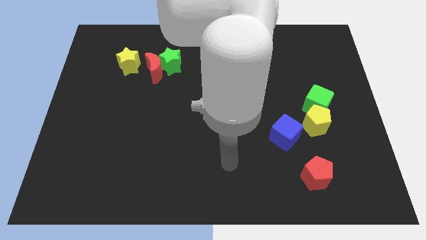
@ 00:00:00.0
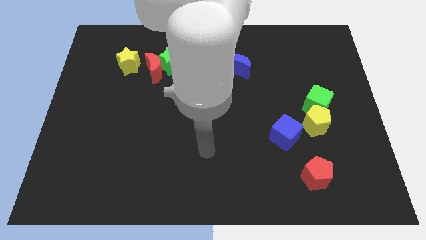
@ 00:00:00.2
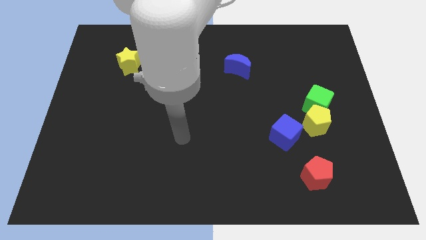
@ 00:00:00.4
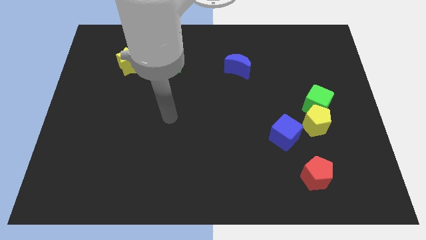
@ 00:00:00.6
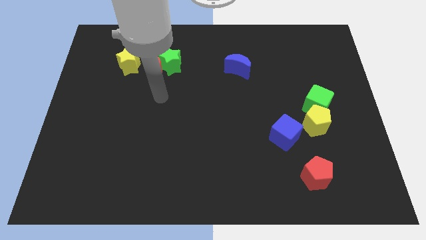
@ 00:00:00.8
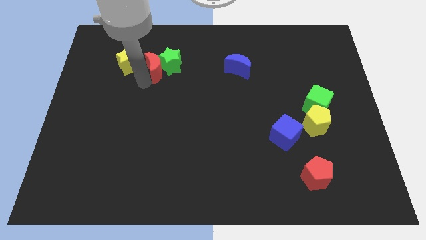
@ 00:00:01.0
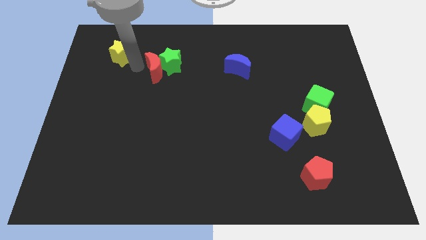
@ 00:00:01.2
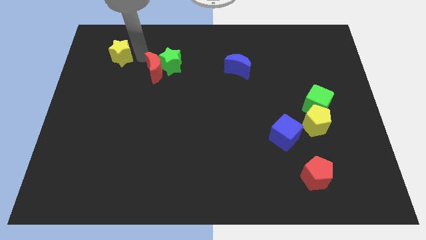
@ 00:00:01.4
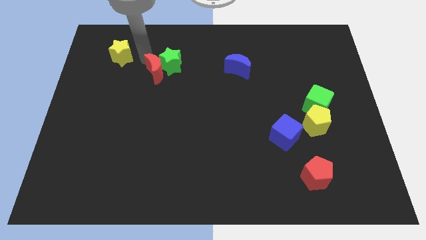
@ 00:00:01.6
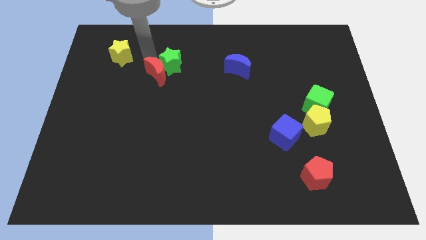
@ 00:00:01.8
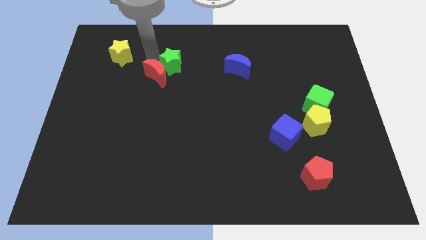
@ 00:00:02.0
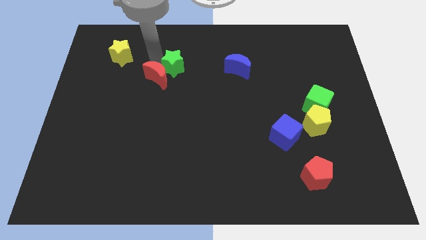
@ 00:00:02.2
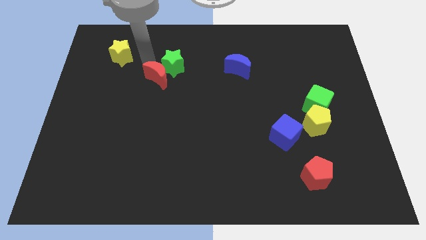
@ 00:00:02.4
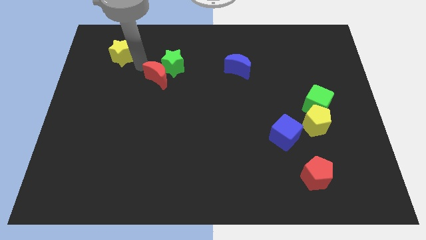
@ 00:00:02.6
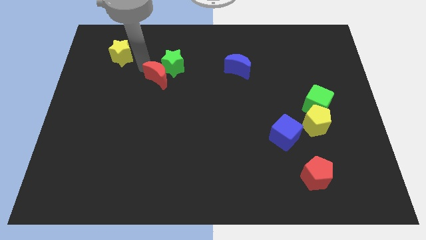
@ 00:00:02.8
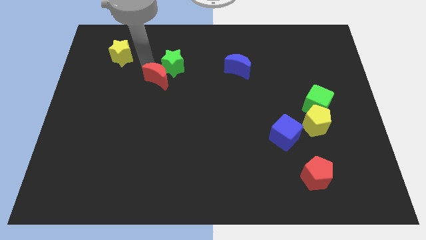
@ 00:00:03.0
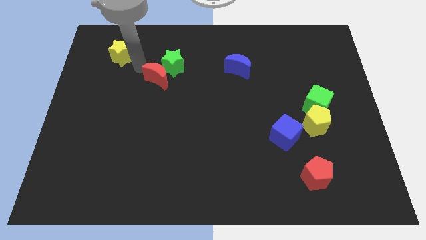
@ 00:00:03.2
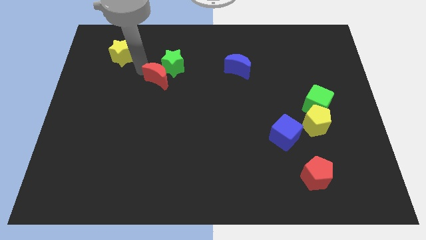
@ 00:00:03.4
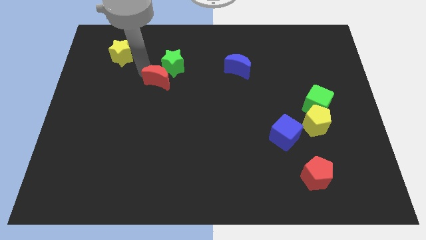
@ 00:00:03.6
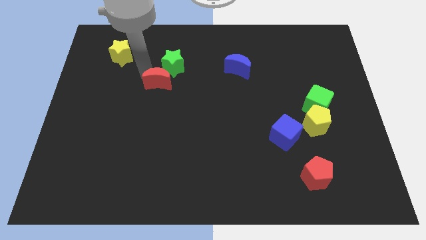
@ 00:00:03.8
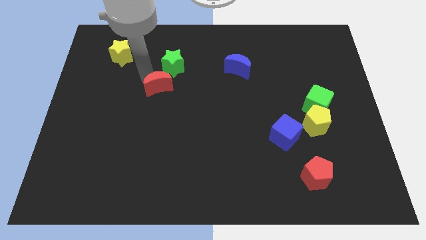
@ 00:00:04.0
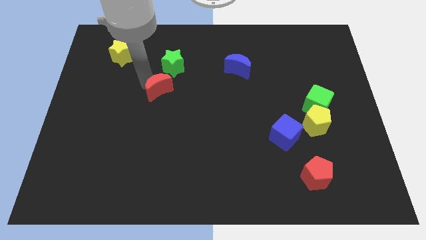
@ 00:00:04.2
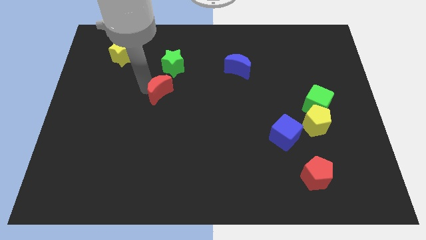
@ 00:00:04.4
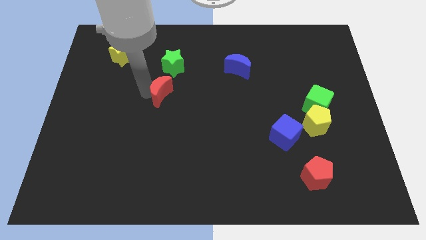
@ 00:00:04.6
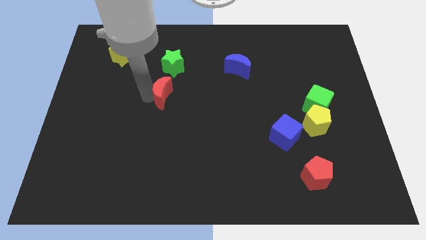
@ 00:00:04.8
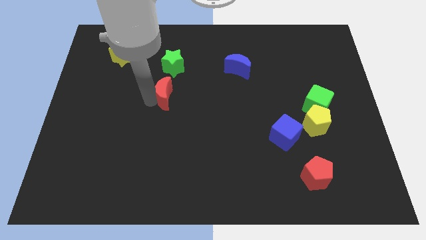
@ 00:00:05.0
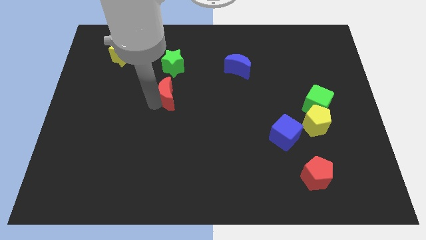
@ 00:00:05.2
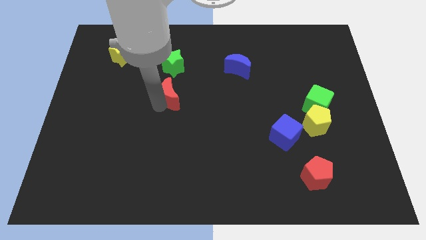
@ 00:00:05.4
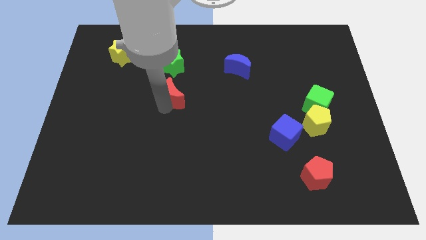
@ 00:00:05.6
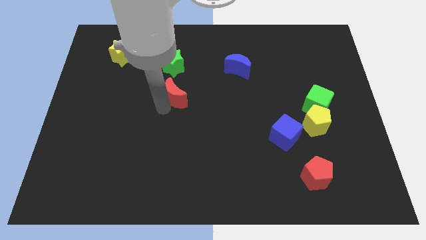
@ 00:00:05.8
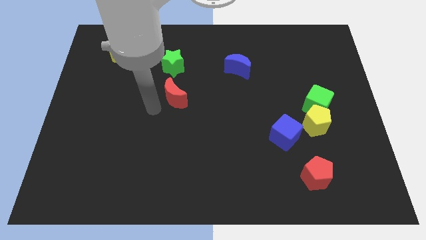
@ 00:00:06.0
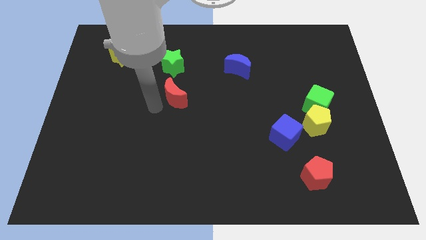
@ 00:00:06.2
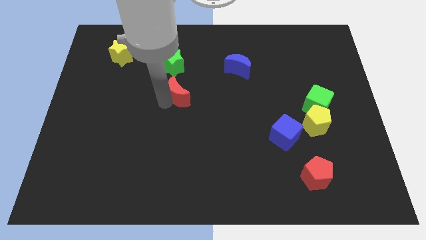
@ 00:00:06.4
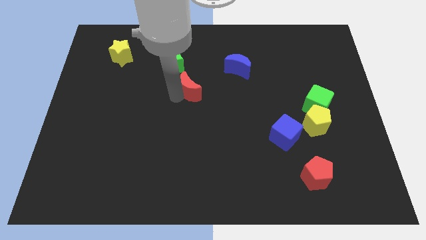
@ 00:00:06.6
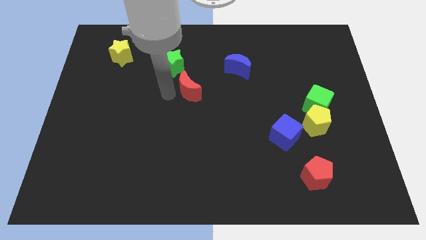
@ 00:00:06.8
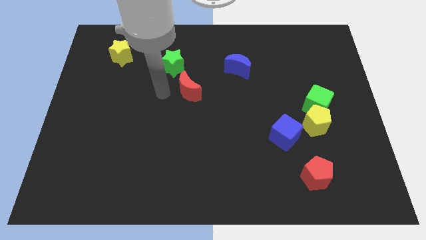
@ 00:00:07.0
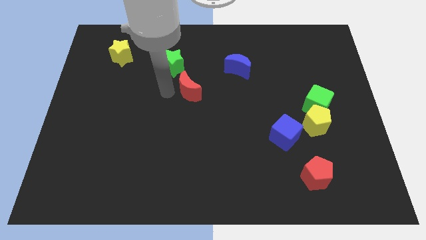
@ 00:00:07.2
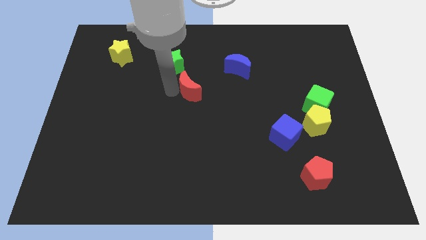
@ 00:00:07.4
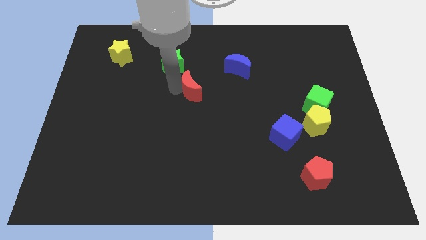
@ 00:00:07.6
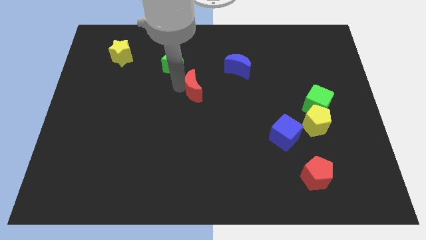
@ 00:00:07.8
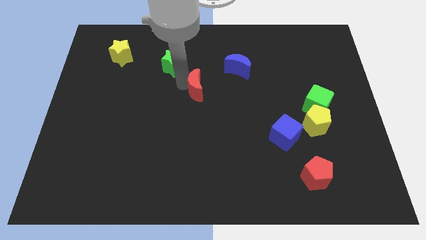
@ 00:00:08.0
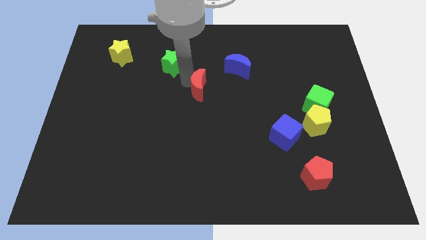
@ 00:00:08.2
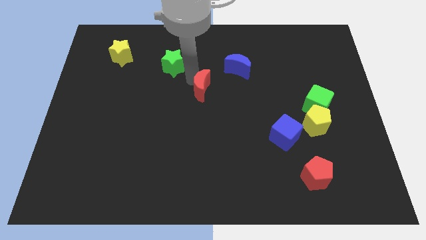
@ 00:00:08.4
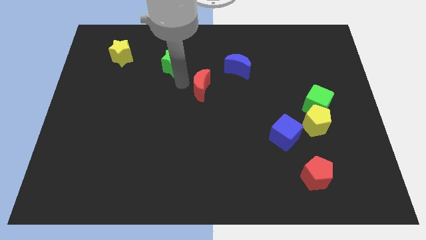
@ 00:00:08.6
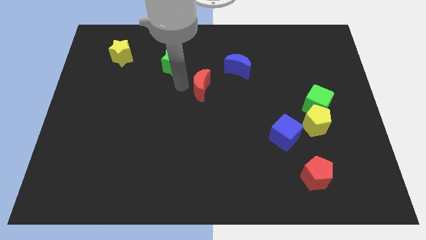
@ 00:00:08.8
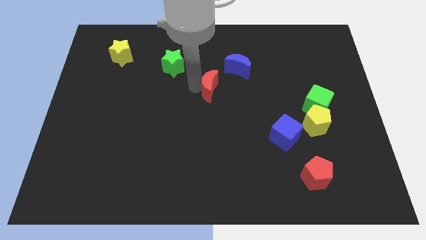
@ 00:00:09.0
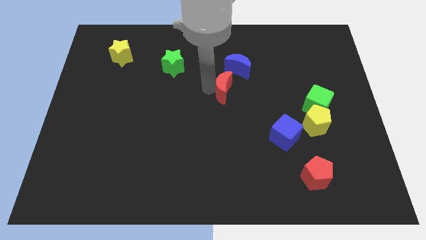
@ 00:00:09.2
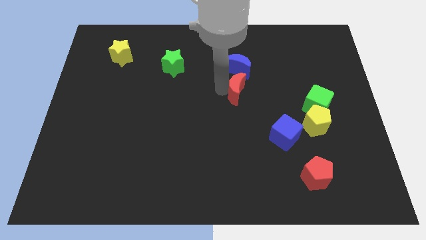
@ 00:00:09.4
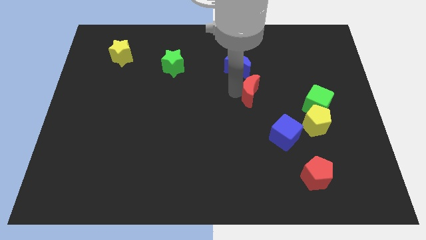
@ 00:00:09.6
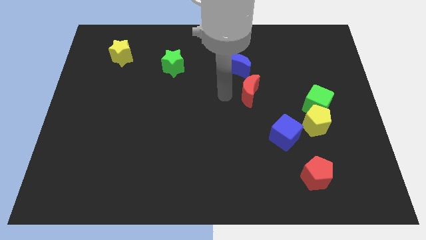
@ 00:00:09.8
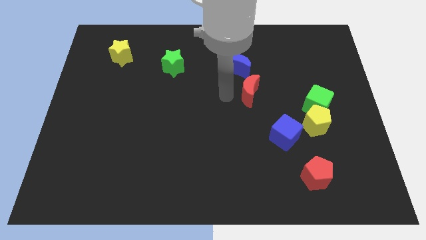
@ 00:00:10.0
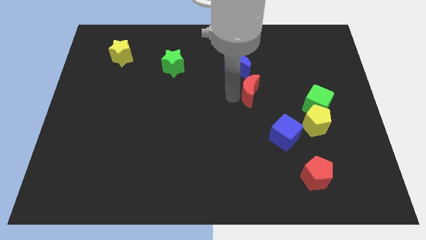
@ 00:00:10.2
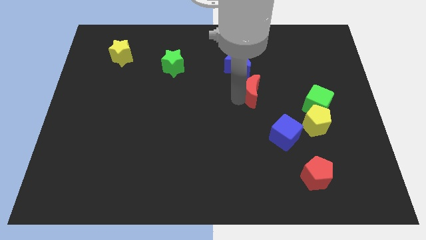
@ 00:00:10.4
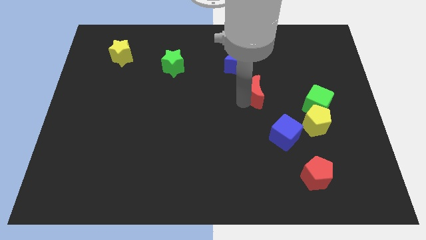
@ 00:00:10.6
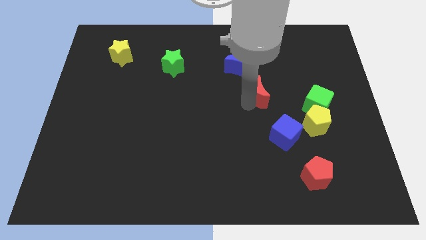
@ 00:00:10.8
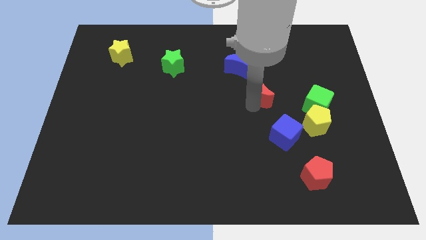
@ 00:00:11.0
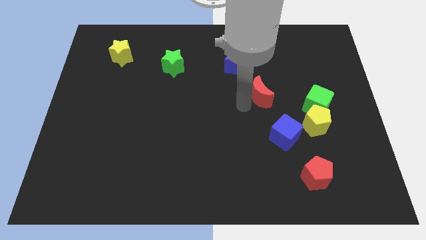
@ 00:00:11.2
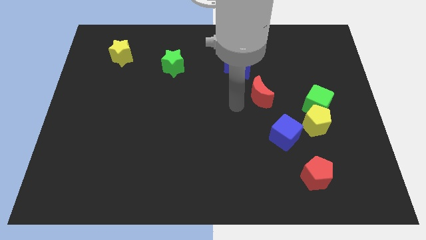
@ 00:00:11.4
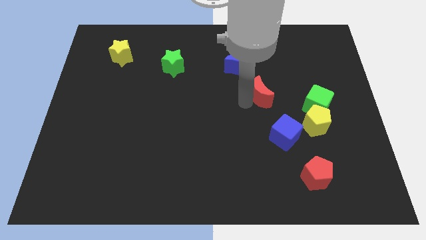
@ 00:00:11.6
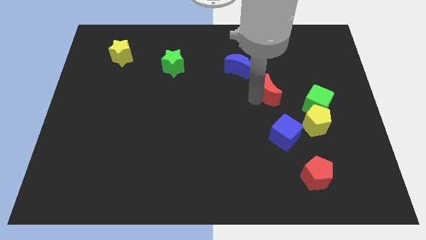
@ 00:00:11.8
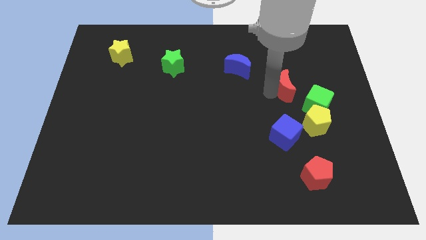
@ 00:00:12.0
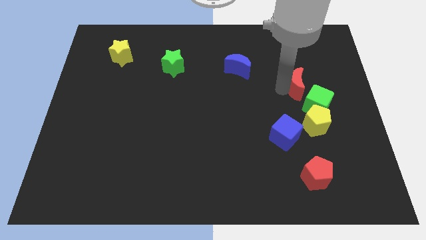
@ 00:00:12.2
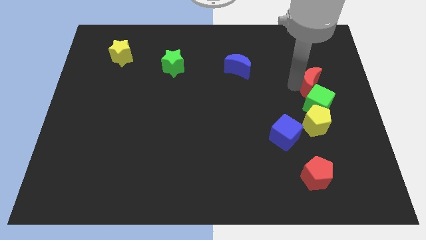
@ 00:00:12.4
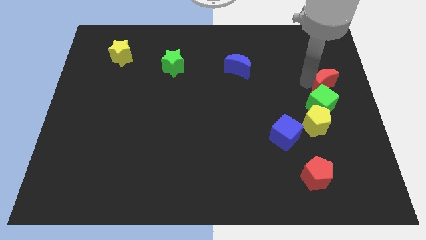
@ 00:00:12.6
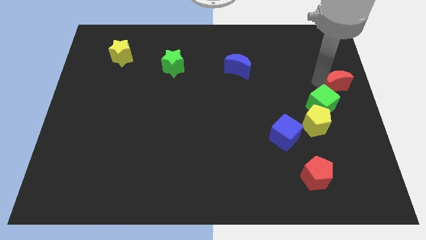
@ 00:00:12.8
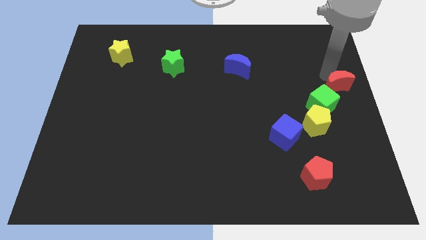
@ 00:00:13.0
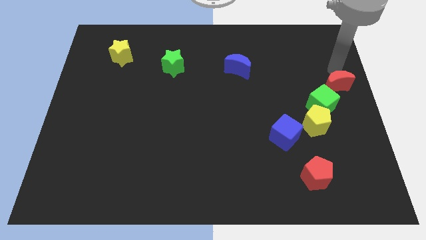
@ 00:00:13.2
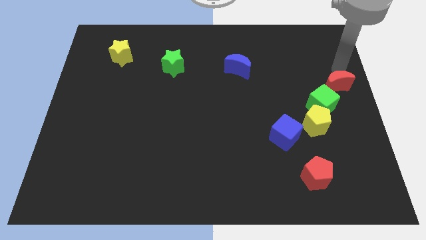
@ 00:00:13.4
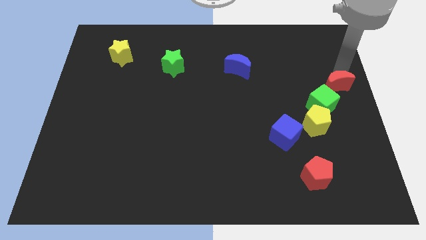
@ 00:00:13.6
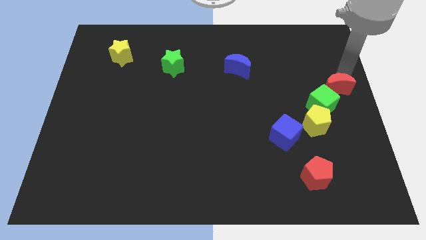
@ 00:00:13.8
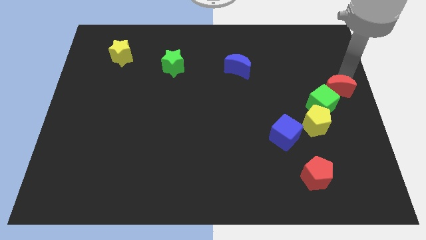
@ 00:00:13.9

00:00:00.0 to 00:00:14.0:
put the red moon diagonally up and to the right of the yellow pentagon
